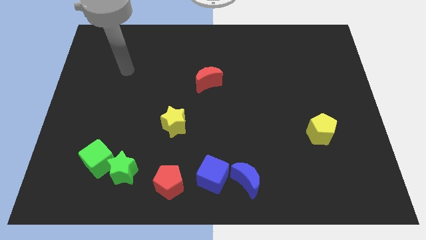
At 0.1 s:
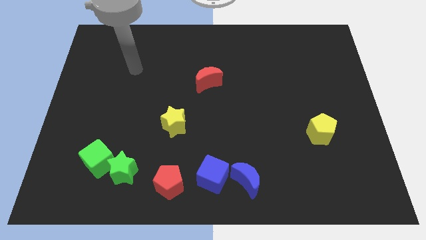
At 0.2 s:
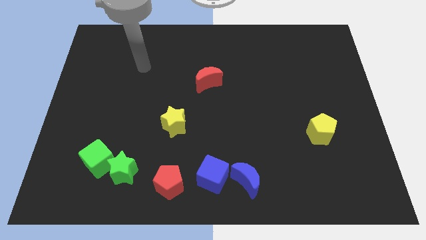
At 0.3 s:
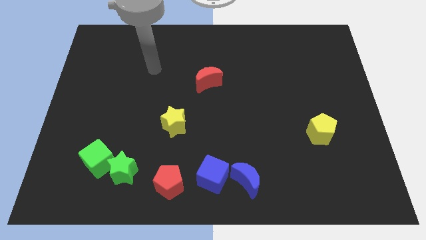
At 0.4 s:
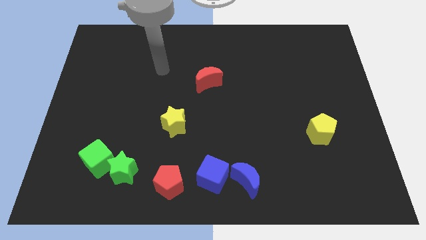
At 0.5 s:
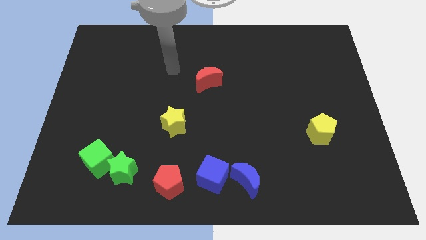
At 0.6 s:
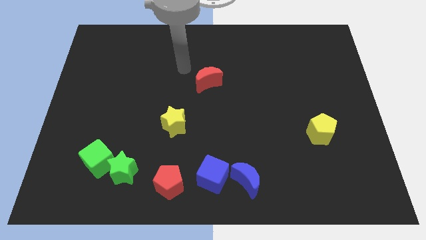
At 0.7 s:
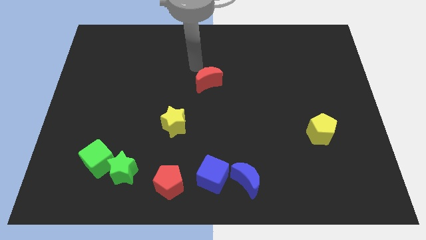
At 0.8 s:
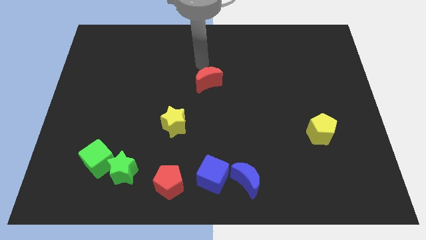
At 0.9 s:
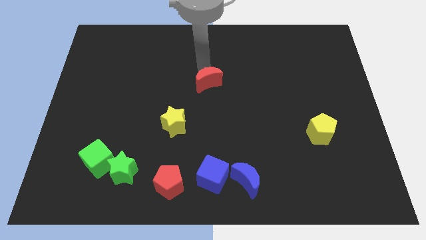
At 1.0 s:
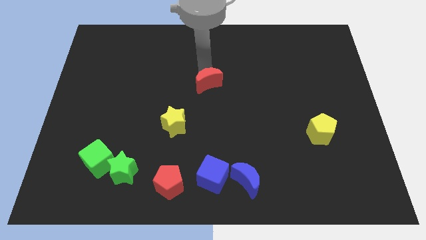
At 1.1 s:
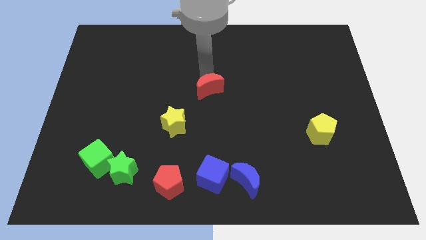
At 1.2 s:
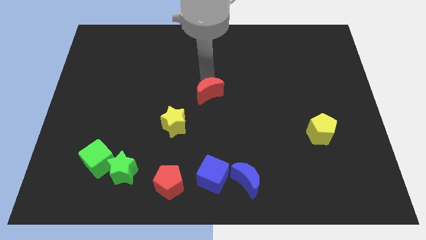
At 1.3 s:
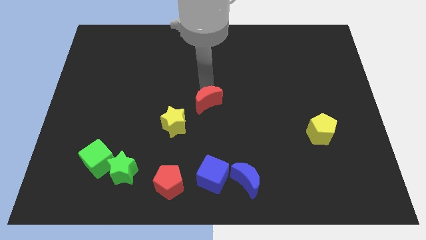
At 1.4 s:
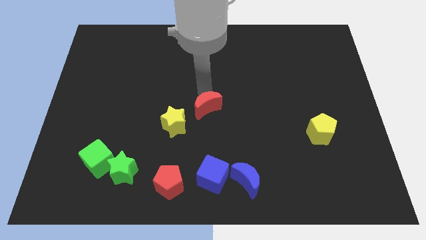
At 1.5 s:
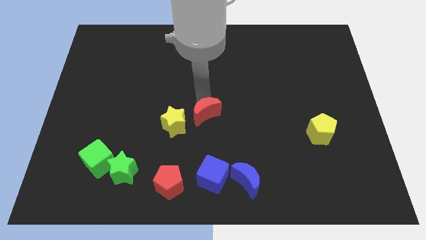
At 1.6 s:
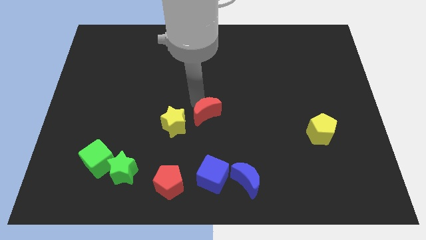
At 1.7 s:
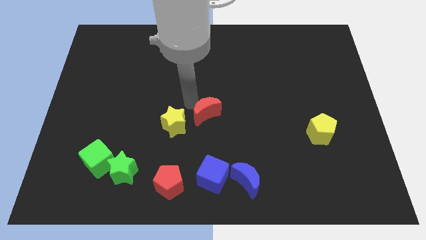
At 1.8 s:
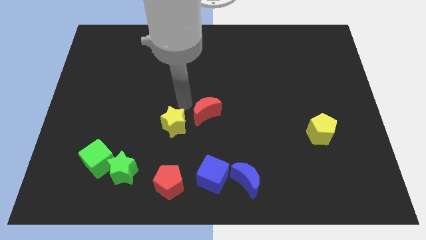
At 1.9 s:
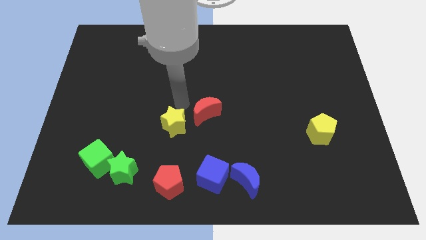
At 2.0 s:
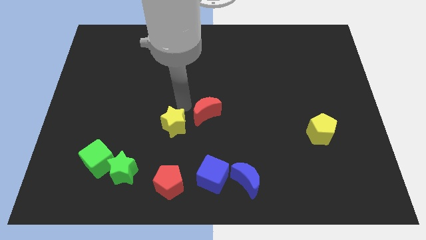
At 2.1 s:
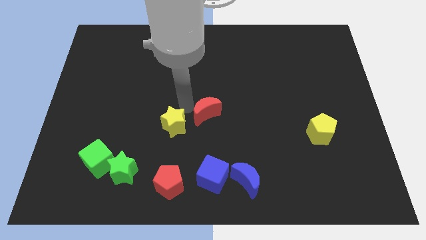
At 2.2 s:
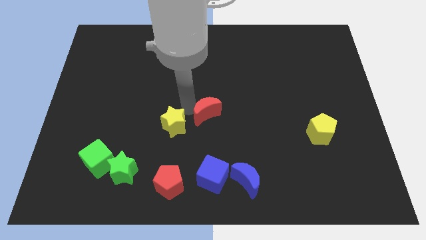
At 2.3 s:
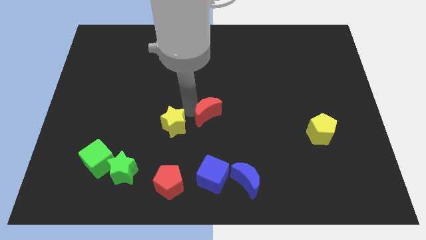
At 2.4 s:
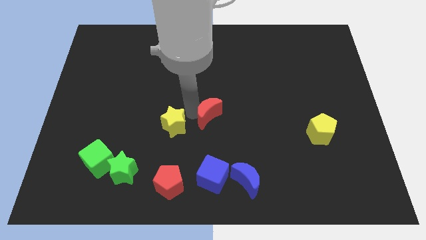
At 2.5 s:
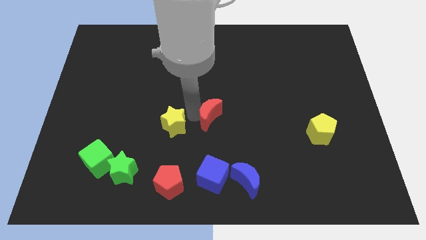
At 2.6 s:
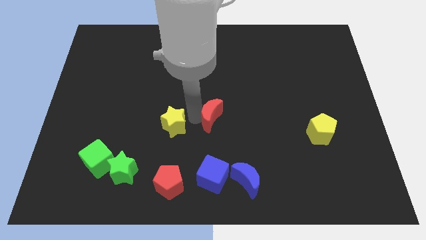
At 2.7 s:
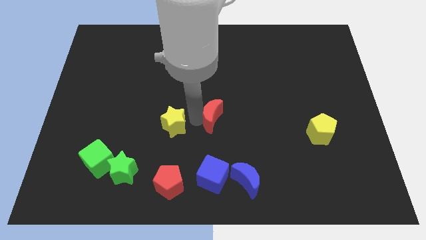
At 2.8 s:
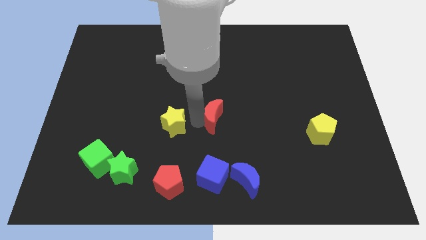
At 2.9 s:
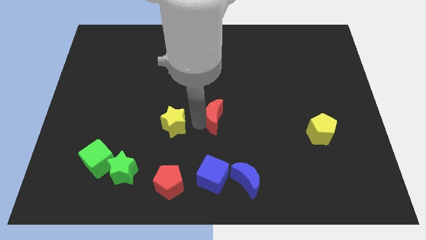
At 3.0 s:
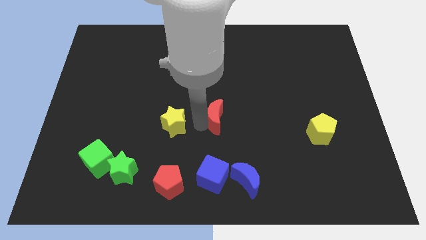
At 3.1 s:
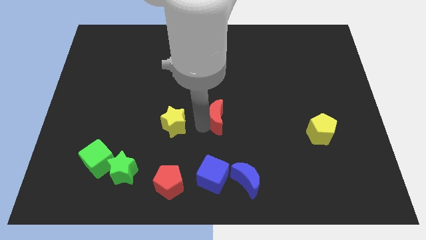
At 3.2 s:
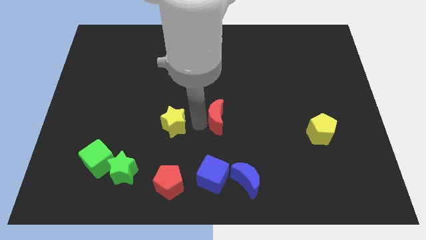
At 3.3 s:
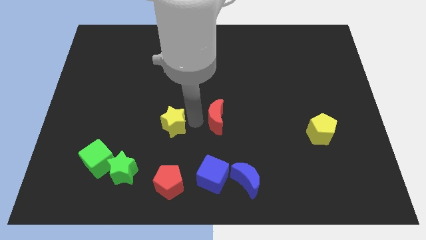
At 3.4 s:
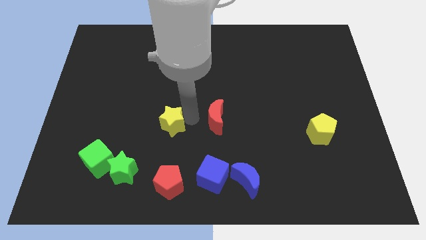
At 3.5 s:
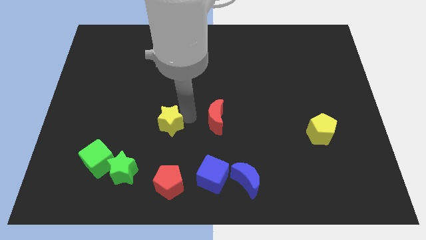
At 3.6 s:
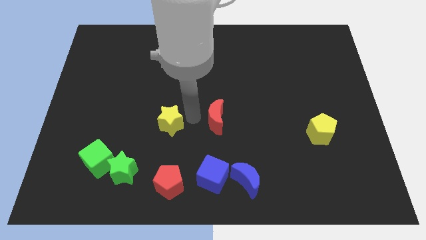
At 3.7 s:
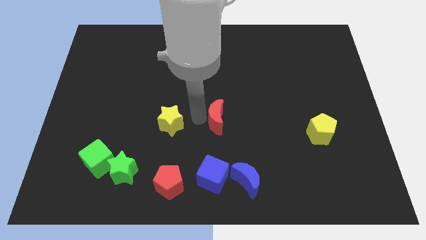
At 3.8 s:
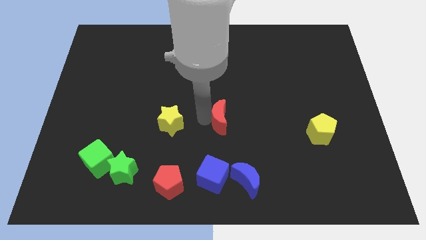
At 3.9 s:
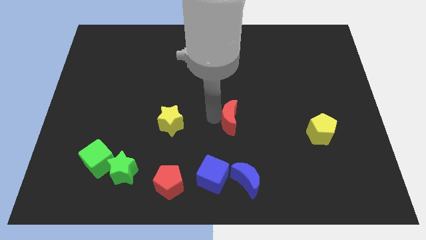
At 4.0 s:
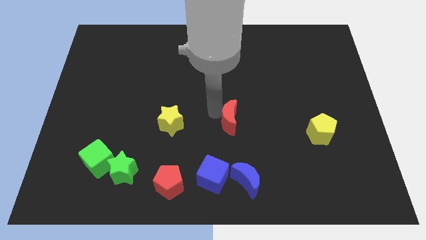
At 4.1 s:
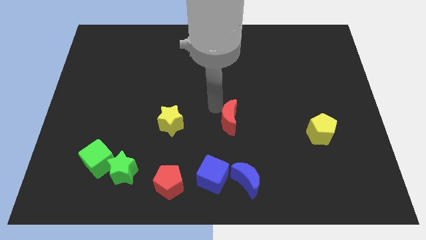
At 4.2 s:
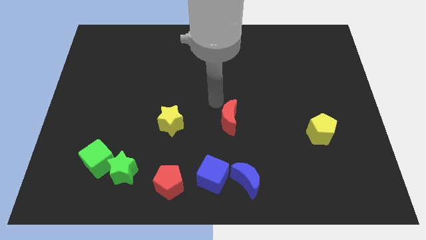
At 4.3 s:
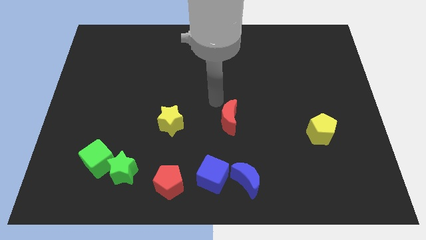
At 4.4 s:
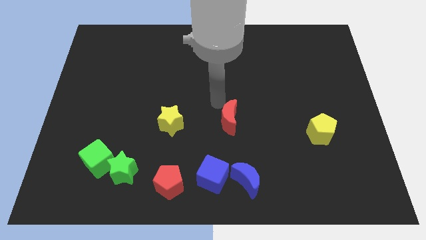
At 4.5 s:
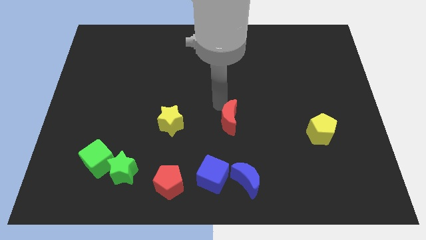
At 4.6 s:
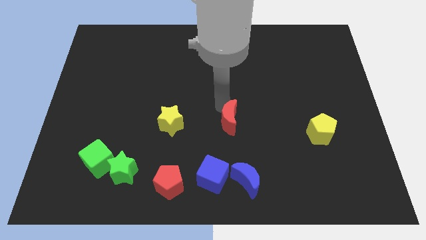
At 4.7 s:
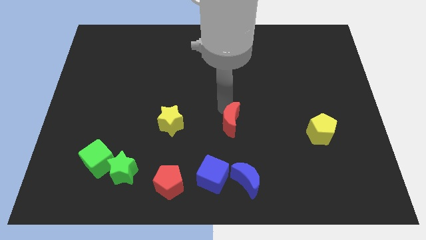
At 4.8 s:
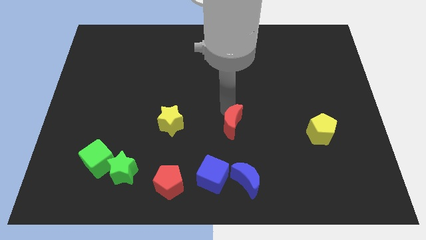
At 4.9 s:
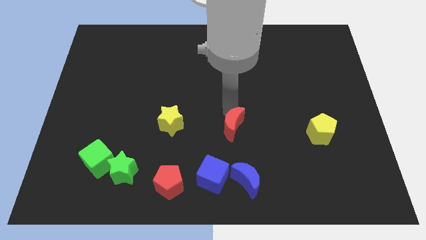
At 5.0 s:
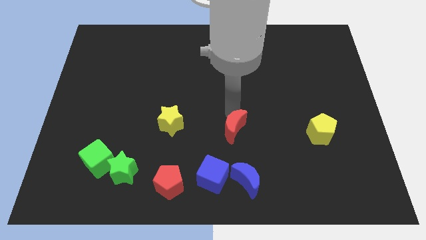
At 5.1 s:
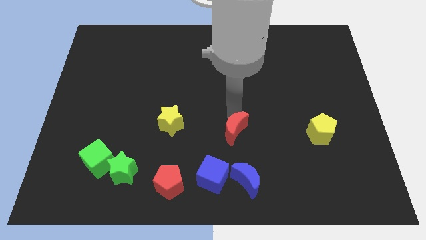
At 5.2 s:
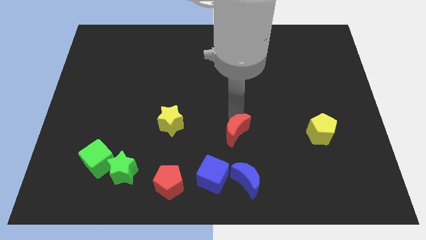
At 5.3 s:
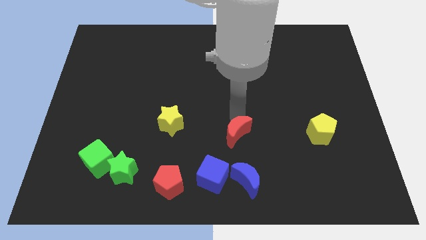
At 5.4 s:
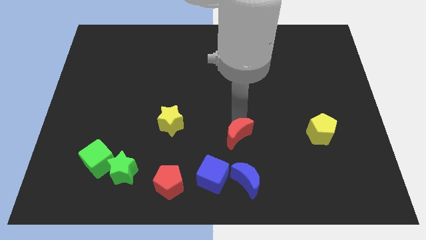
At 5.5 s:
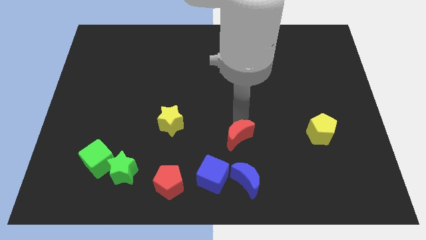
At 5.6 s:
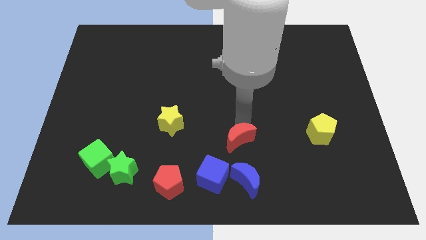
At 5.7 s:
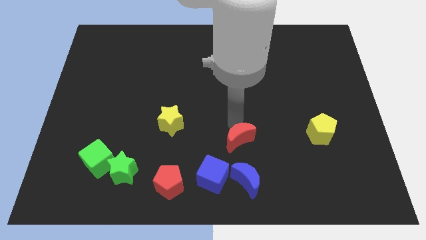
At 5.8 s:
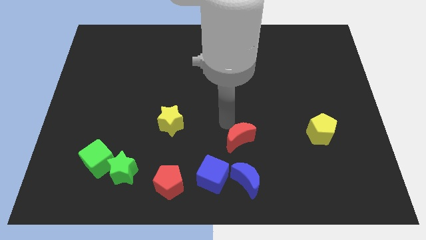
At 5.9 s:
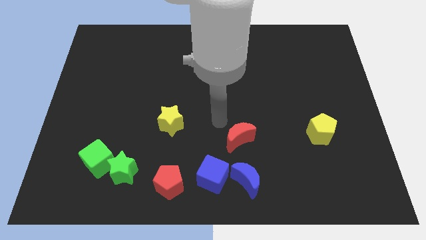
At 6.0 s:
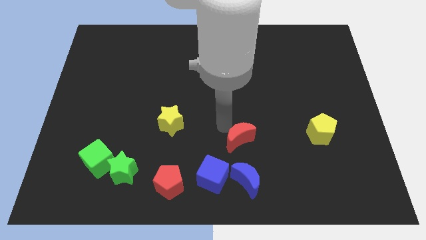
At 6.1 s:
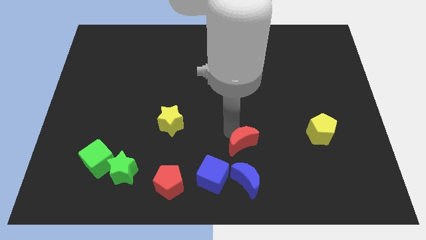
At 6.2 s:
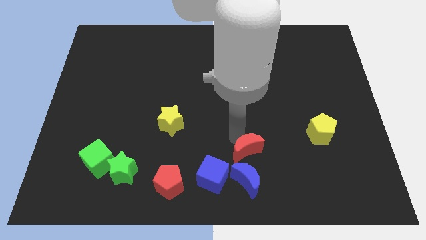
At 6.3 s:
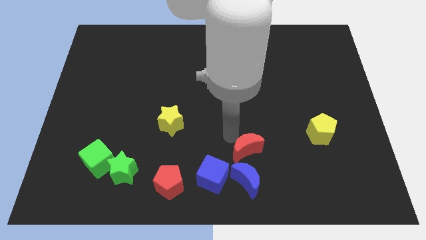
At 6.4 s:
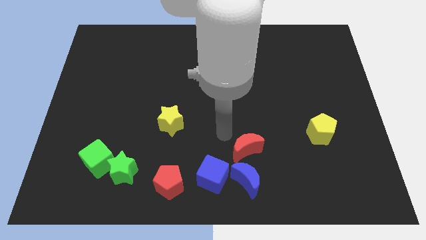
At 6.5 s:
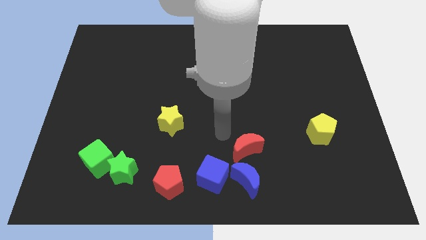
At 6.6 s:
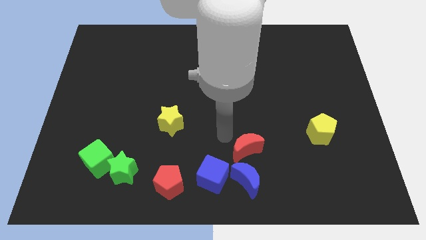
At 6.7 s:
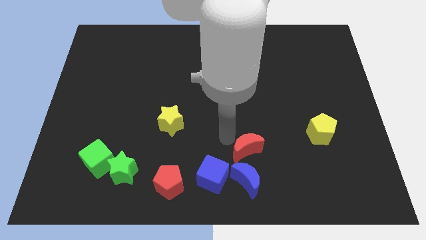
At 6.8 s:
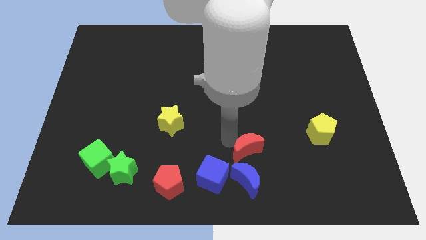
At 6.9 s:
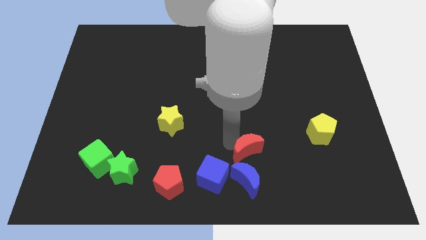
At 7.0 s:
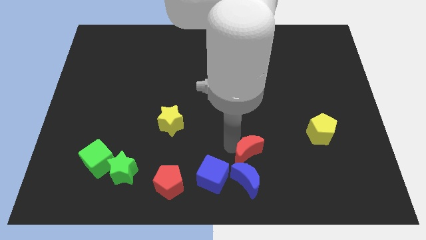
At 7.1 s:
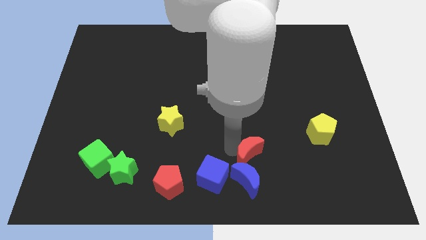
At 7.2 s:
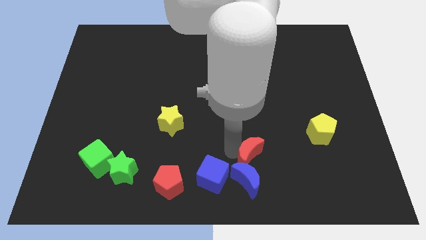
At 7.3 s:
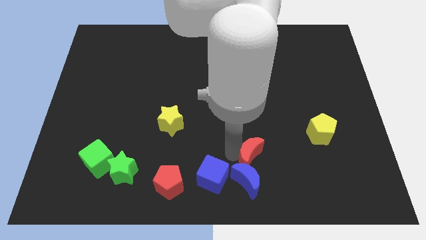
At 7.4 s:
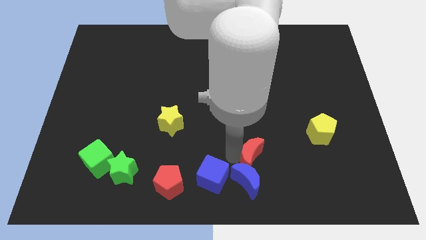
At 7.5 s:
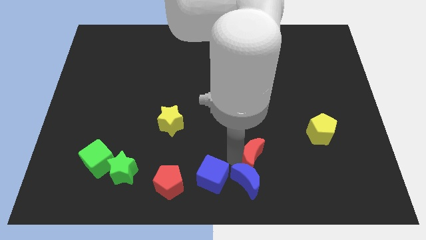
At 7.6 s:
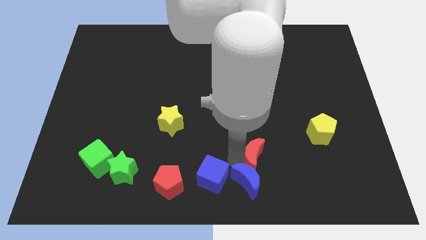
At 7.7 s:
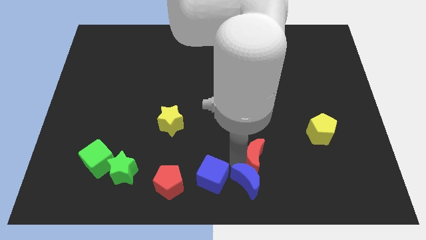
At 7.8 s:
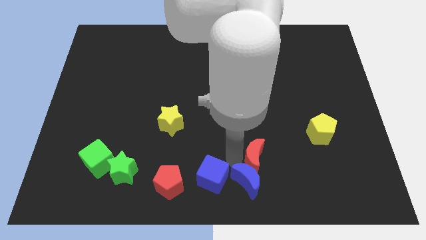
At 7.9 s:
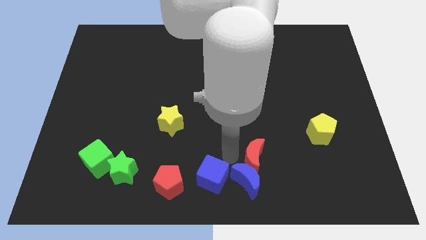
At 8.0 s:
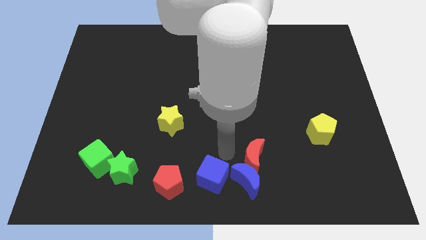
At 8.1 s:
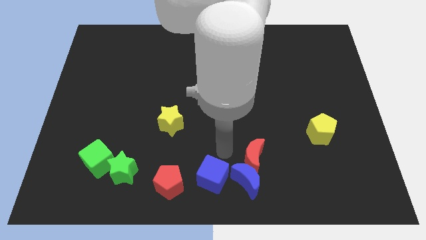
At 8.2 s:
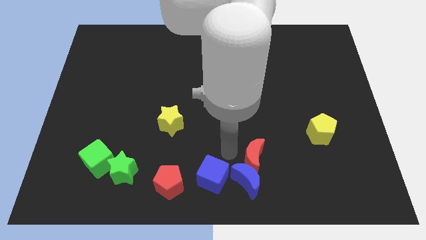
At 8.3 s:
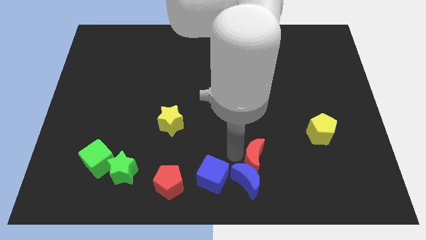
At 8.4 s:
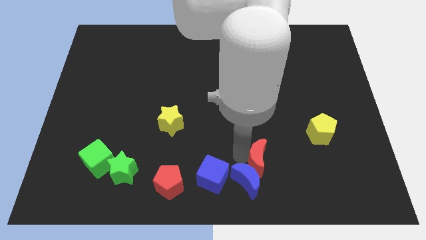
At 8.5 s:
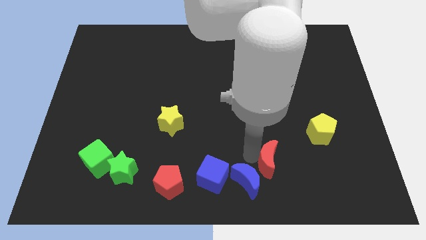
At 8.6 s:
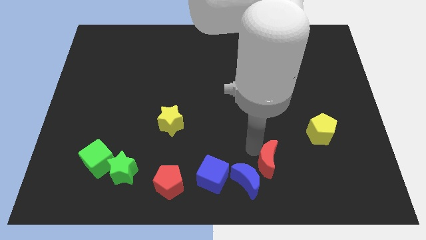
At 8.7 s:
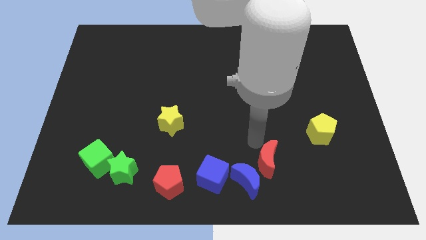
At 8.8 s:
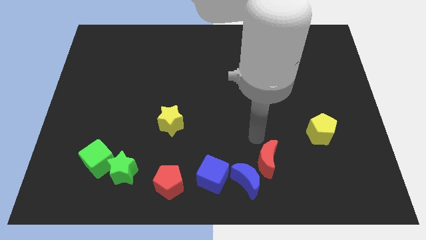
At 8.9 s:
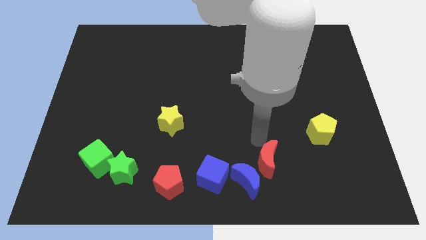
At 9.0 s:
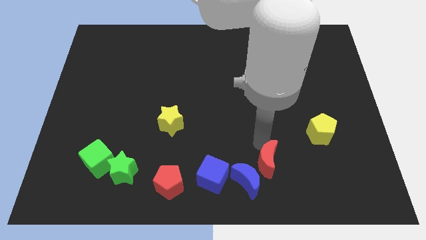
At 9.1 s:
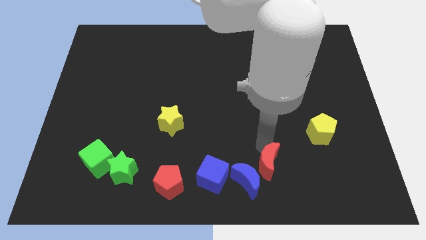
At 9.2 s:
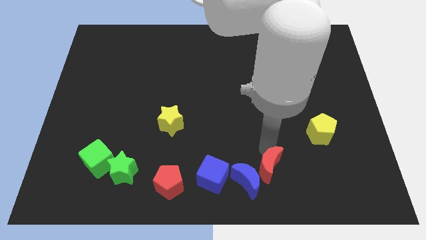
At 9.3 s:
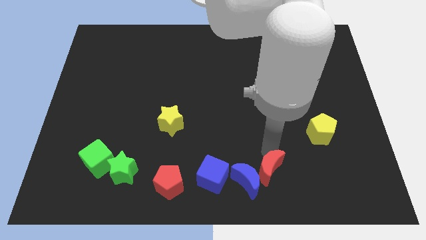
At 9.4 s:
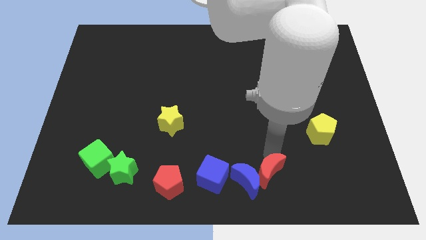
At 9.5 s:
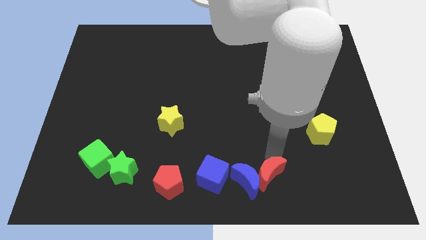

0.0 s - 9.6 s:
move the red moon to the bottom side
